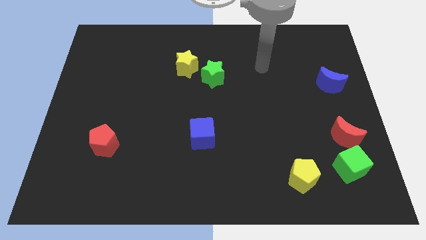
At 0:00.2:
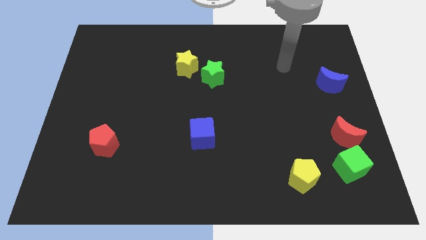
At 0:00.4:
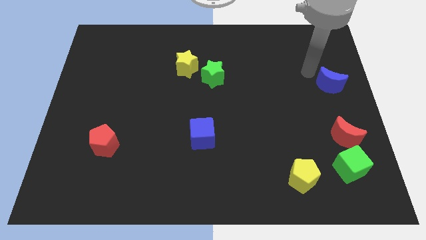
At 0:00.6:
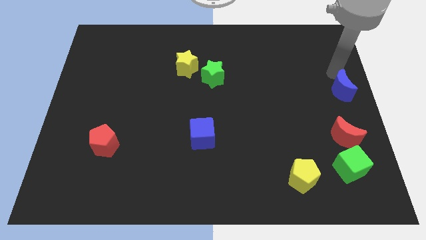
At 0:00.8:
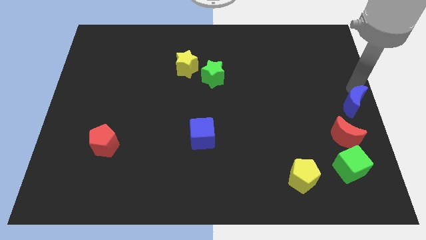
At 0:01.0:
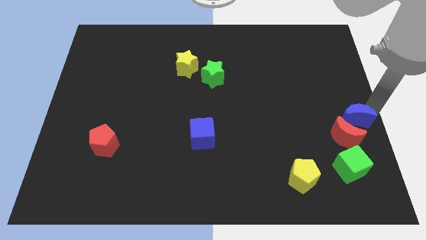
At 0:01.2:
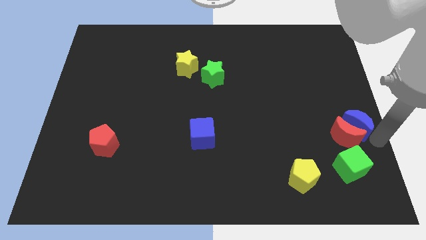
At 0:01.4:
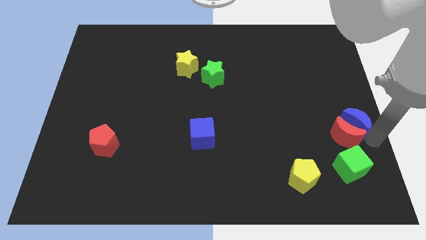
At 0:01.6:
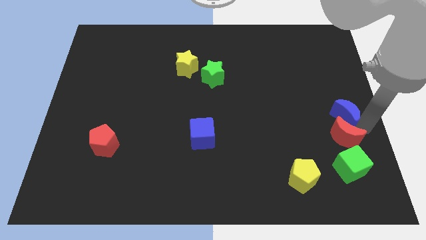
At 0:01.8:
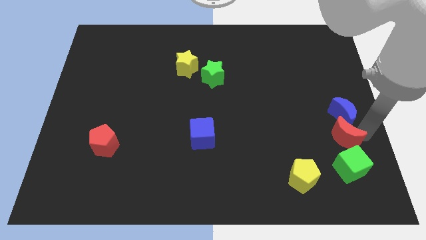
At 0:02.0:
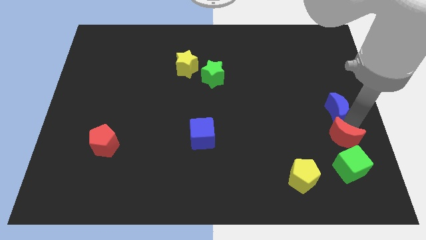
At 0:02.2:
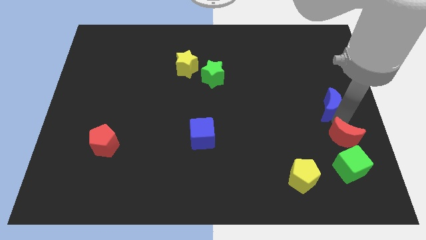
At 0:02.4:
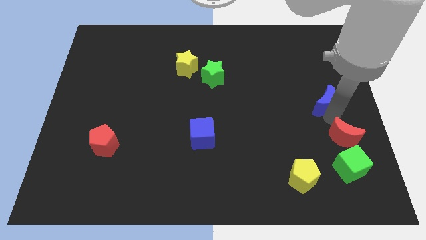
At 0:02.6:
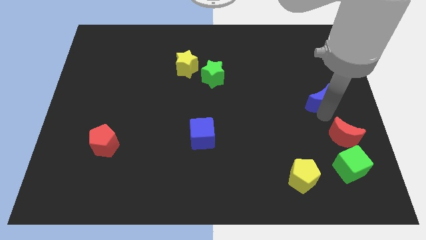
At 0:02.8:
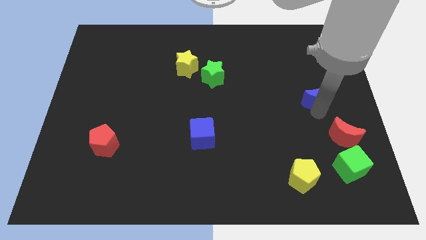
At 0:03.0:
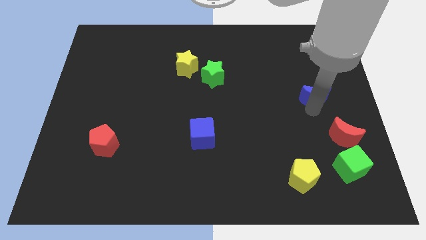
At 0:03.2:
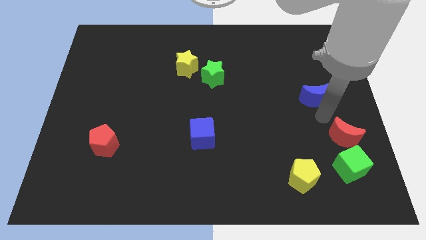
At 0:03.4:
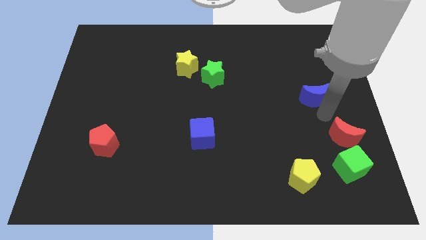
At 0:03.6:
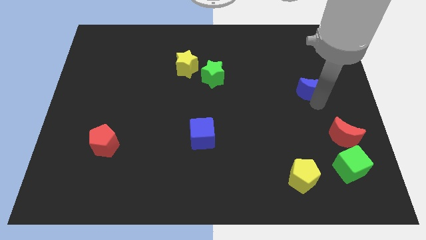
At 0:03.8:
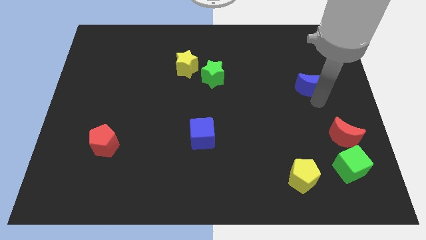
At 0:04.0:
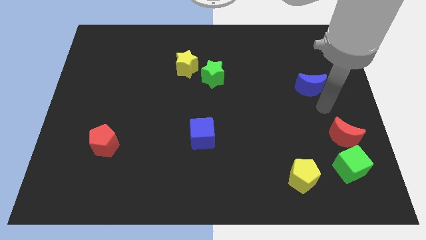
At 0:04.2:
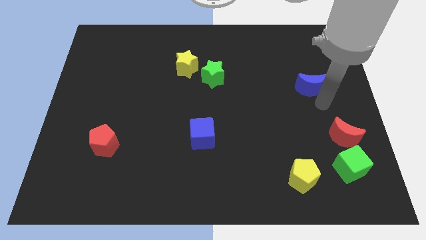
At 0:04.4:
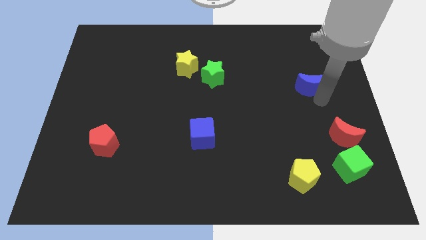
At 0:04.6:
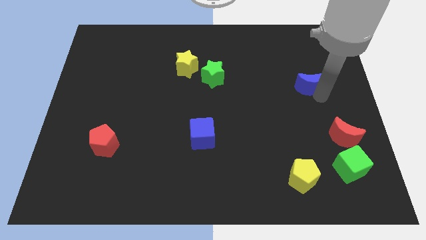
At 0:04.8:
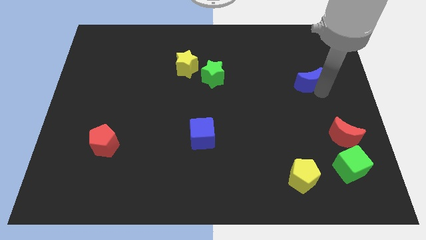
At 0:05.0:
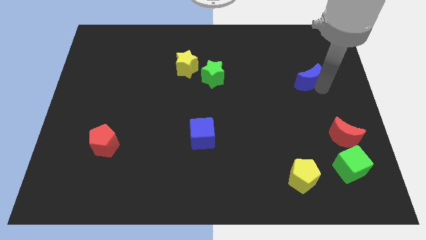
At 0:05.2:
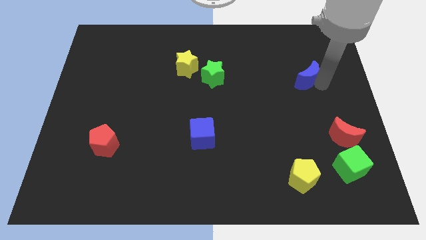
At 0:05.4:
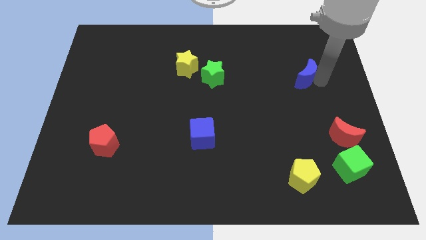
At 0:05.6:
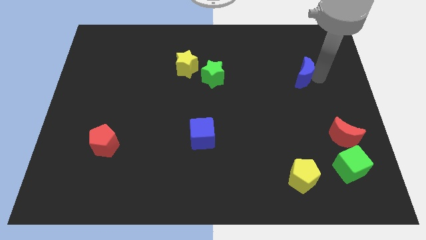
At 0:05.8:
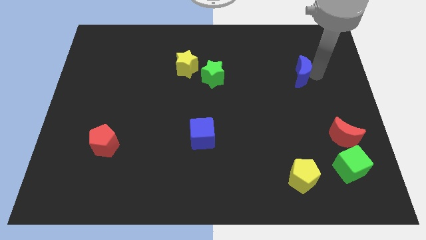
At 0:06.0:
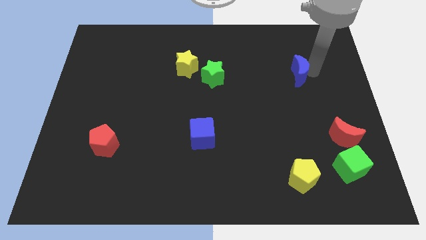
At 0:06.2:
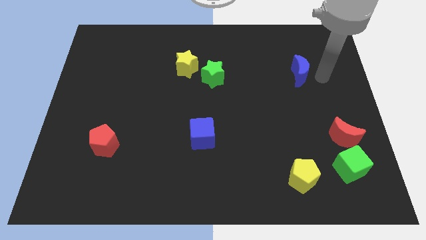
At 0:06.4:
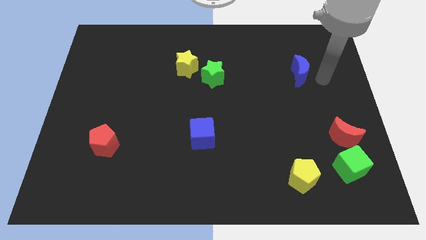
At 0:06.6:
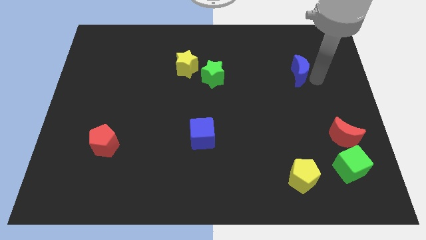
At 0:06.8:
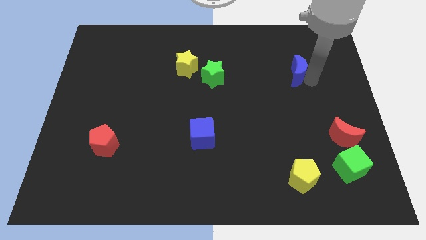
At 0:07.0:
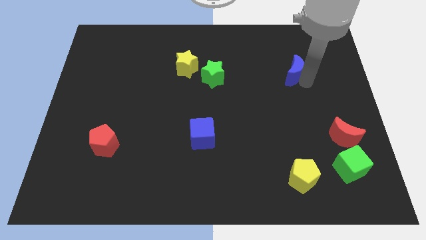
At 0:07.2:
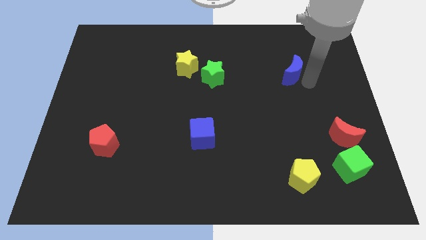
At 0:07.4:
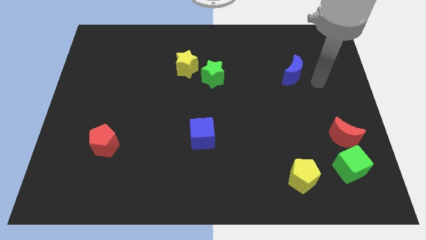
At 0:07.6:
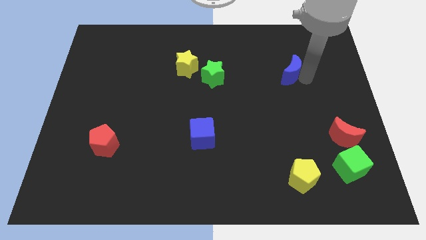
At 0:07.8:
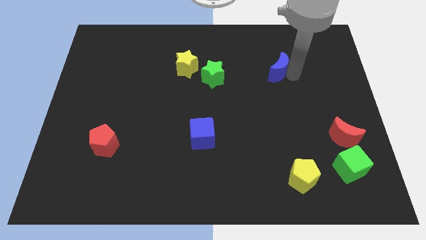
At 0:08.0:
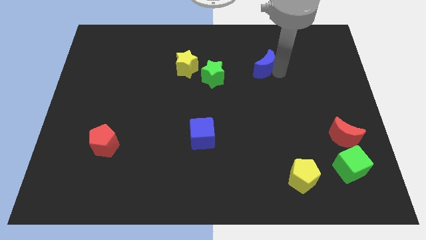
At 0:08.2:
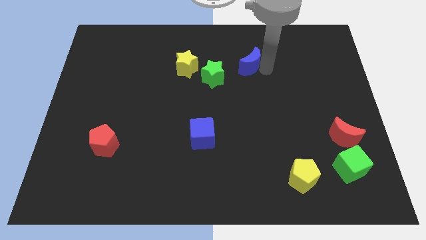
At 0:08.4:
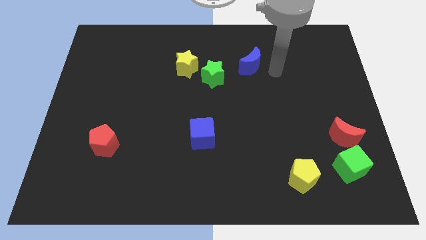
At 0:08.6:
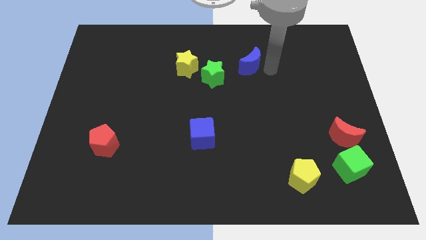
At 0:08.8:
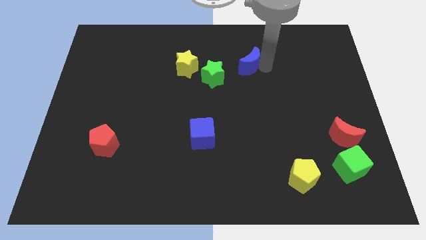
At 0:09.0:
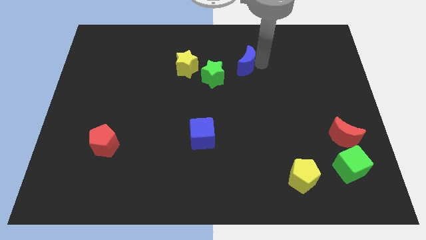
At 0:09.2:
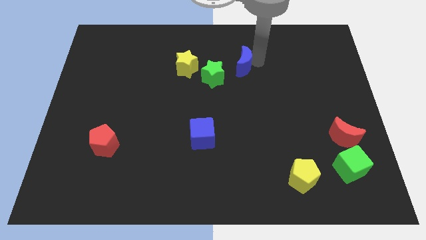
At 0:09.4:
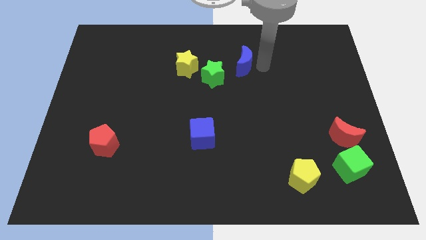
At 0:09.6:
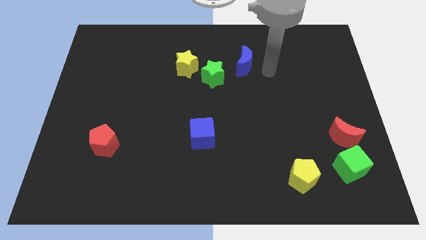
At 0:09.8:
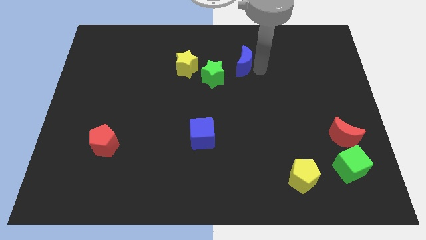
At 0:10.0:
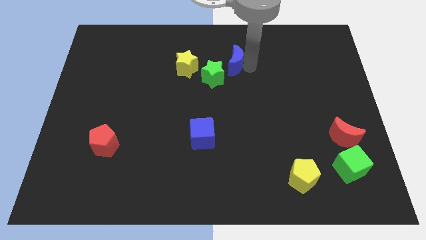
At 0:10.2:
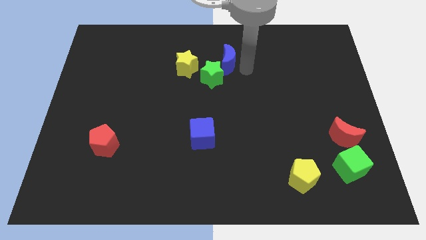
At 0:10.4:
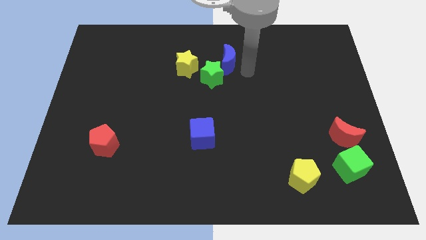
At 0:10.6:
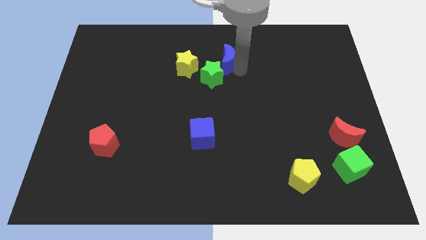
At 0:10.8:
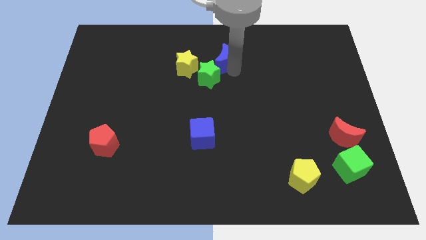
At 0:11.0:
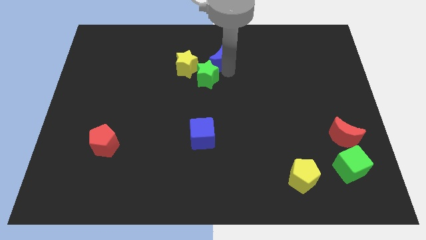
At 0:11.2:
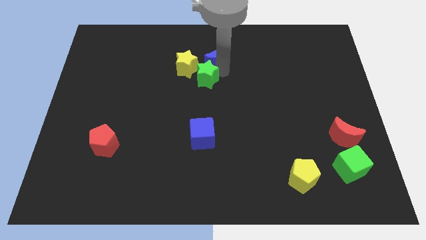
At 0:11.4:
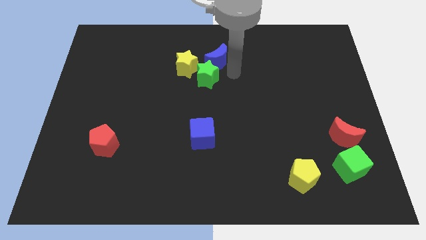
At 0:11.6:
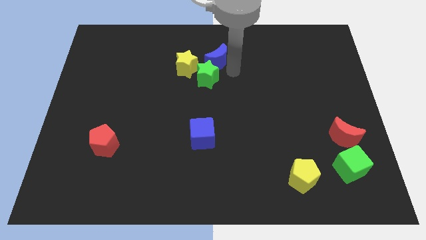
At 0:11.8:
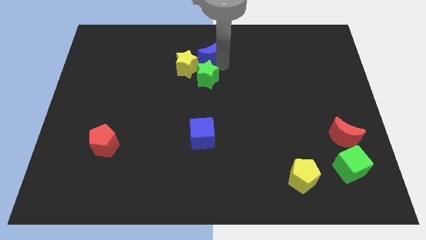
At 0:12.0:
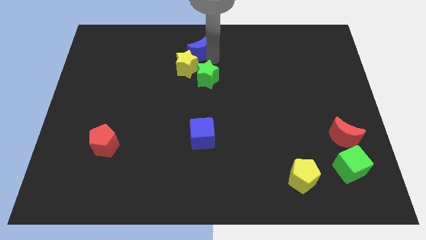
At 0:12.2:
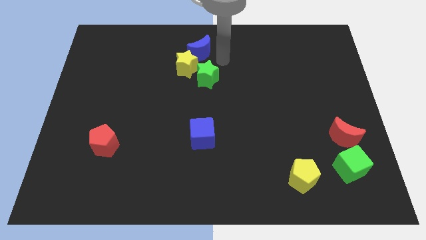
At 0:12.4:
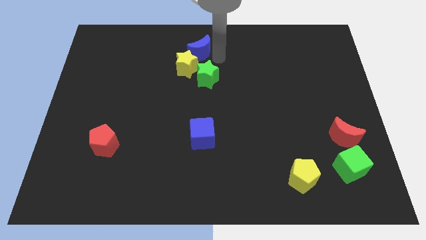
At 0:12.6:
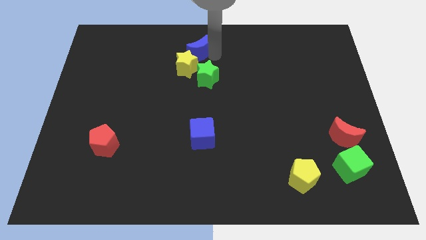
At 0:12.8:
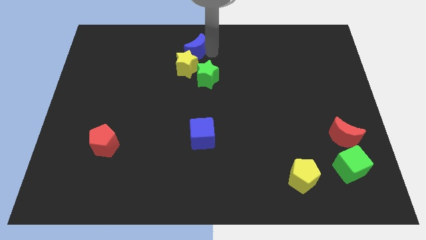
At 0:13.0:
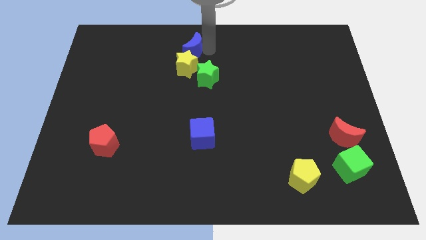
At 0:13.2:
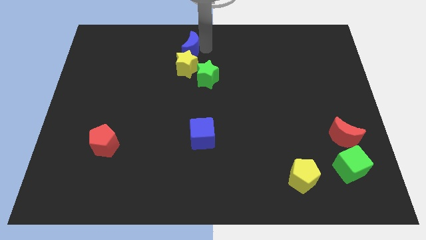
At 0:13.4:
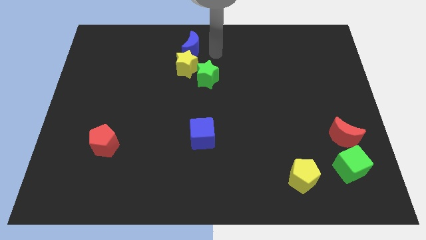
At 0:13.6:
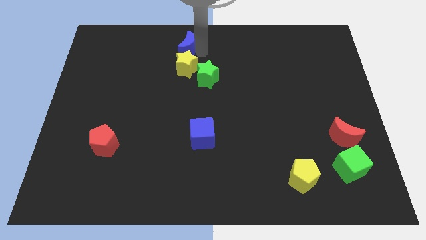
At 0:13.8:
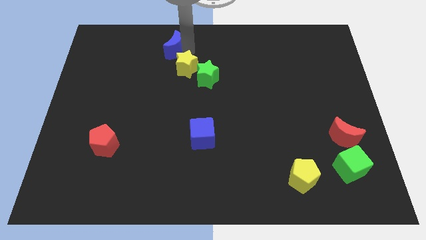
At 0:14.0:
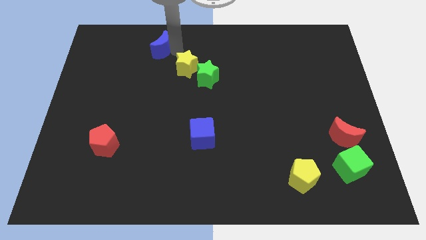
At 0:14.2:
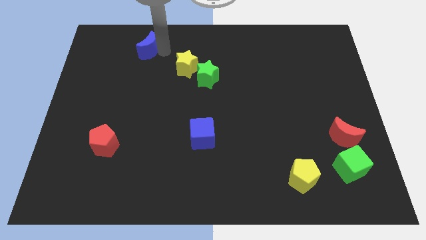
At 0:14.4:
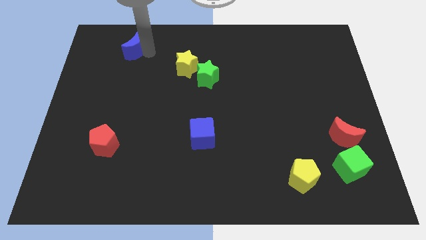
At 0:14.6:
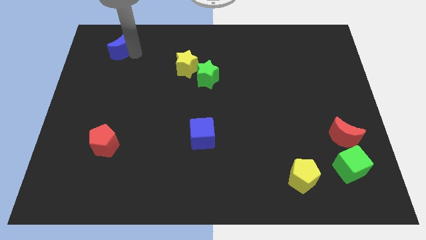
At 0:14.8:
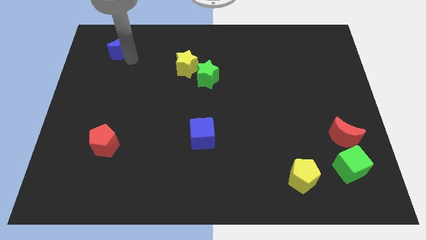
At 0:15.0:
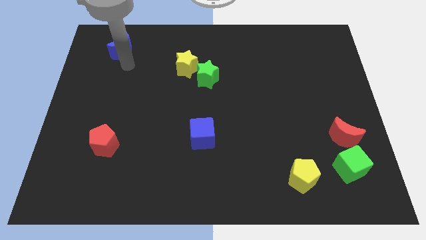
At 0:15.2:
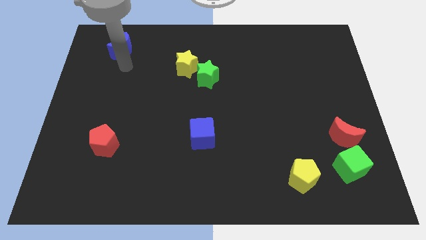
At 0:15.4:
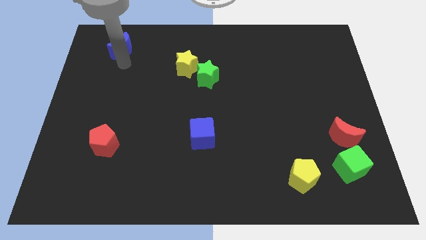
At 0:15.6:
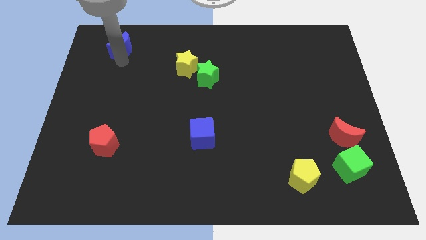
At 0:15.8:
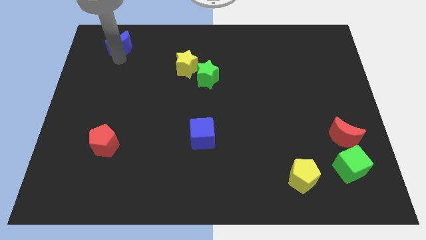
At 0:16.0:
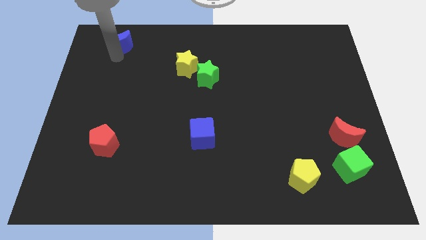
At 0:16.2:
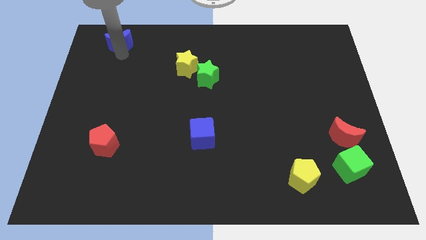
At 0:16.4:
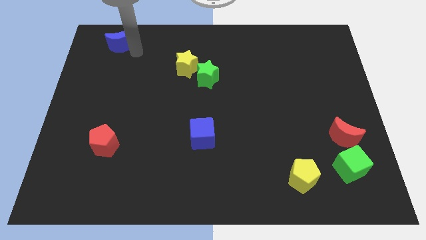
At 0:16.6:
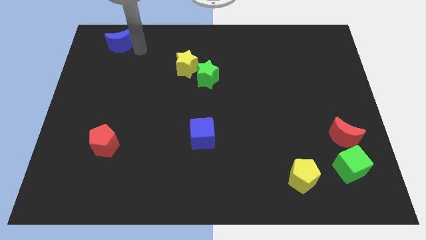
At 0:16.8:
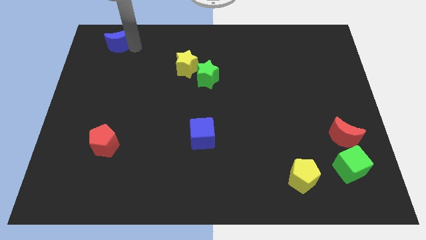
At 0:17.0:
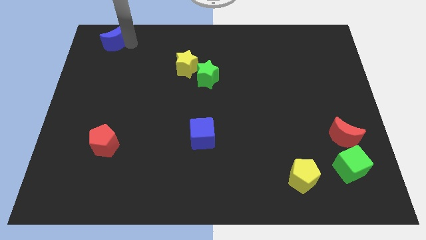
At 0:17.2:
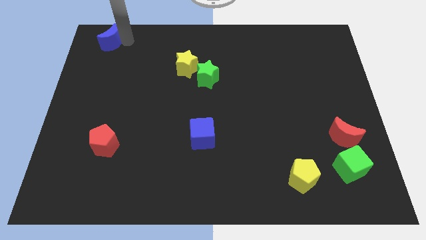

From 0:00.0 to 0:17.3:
push the blue moon to the top left corner
